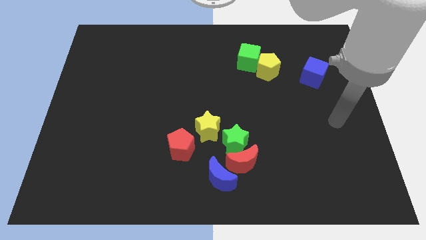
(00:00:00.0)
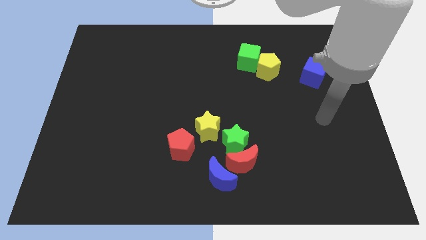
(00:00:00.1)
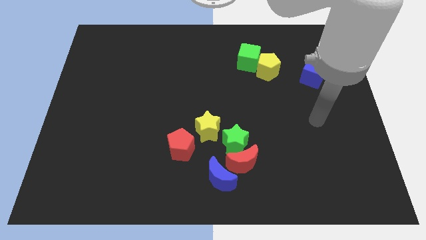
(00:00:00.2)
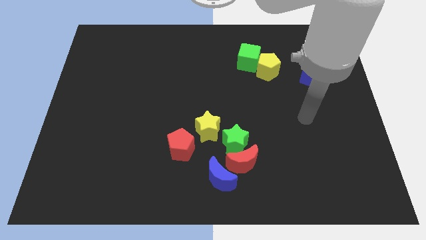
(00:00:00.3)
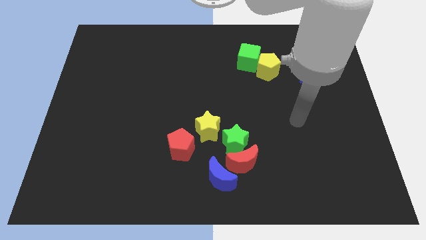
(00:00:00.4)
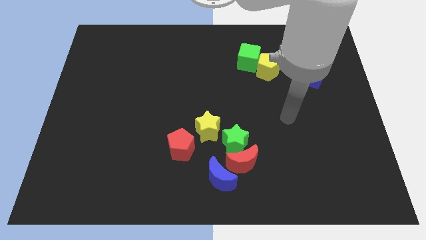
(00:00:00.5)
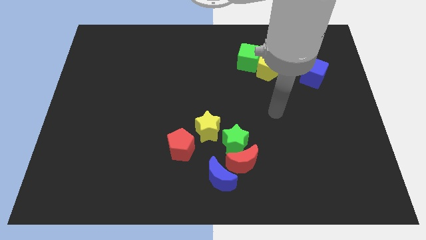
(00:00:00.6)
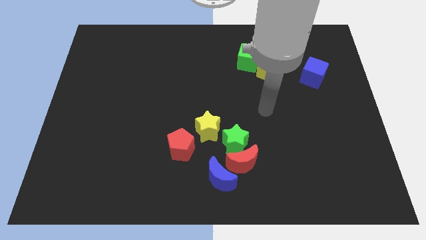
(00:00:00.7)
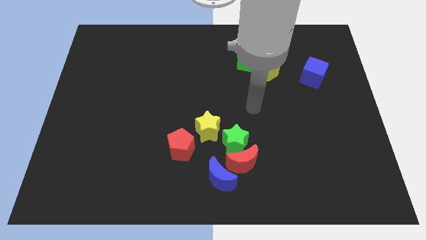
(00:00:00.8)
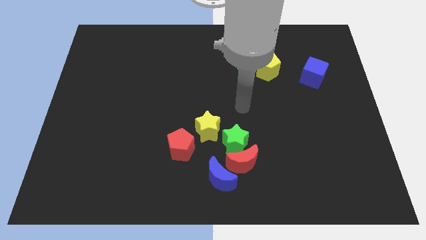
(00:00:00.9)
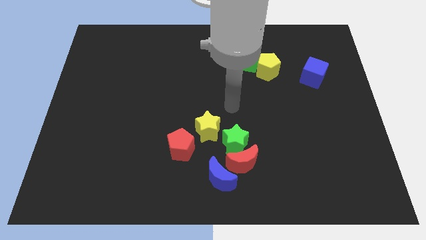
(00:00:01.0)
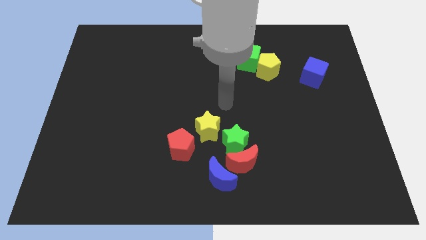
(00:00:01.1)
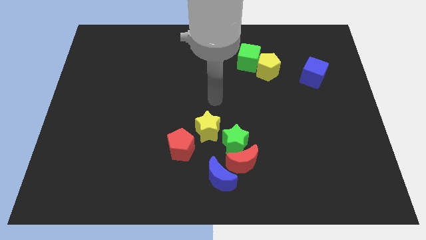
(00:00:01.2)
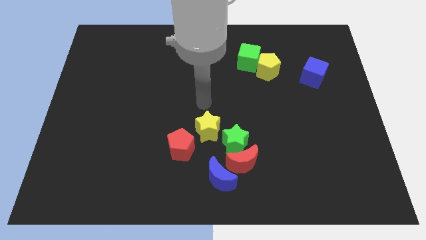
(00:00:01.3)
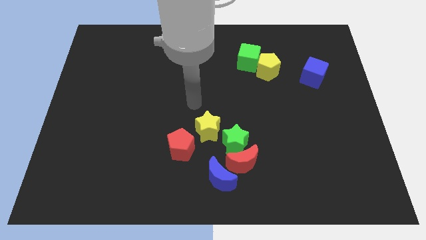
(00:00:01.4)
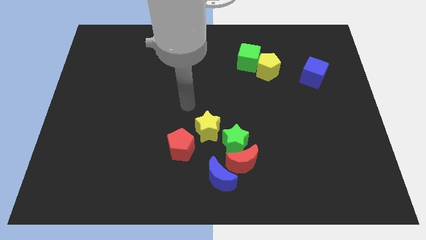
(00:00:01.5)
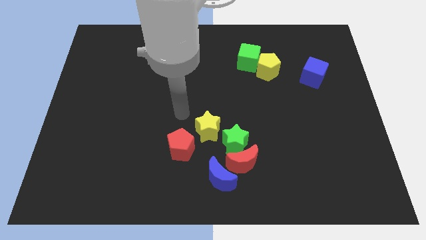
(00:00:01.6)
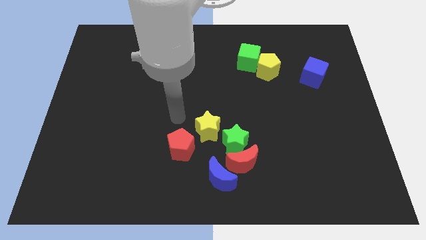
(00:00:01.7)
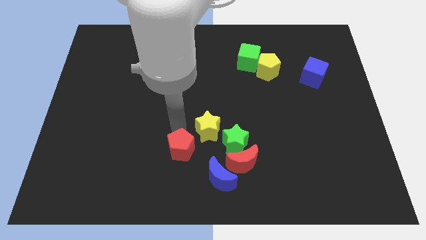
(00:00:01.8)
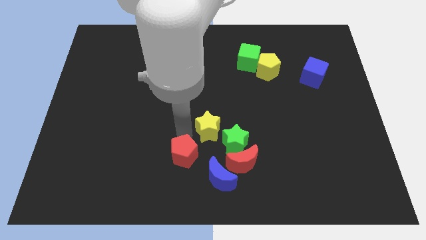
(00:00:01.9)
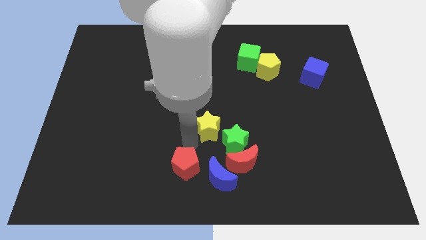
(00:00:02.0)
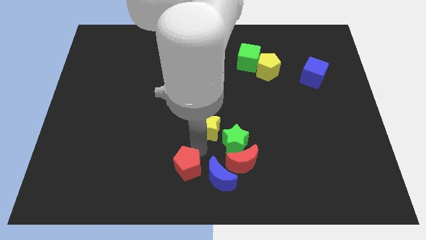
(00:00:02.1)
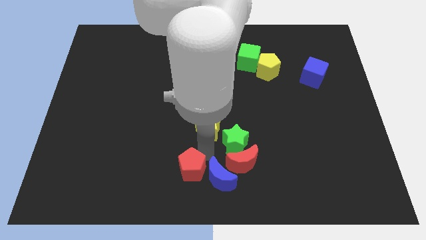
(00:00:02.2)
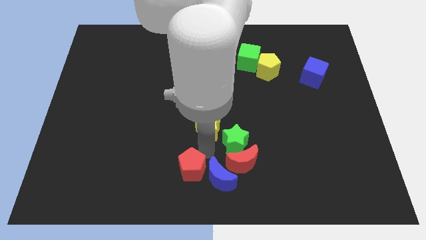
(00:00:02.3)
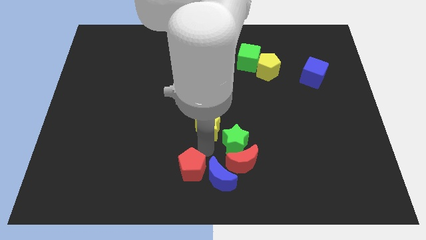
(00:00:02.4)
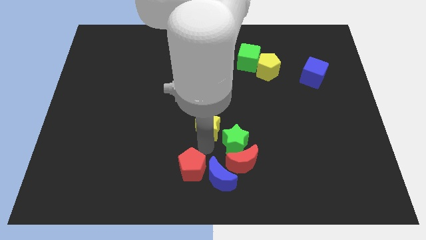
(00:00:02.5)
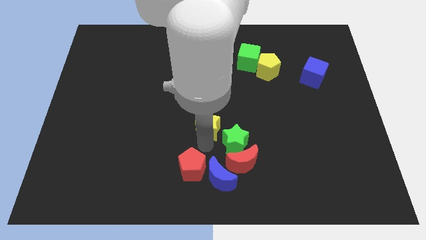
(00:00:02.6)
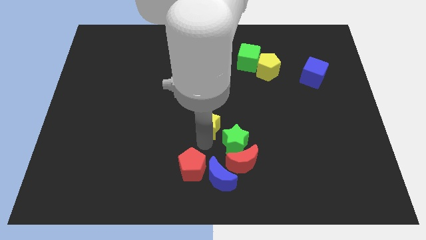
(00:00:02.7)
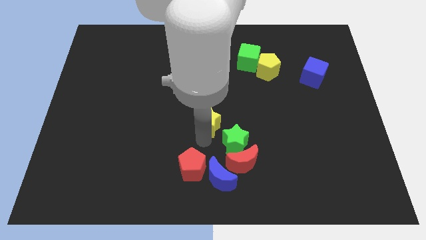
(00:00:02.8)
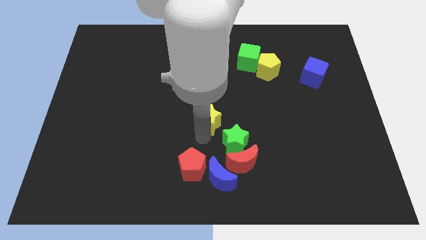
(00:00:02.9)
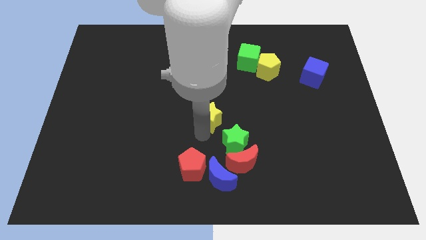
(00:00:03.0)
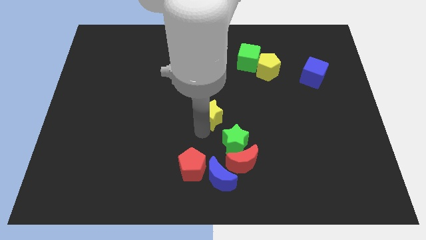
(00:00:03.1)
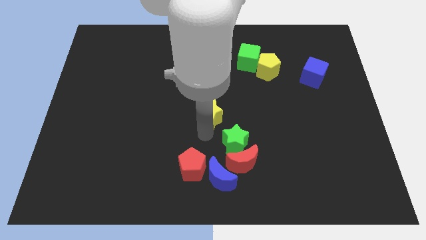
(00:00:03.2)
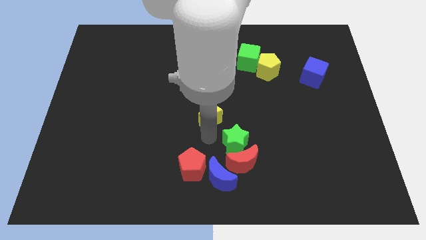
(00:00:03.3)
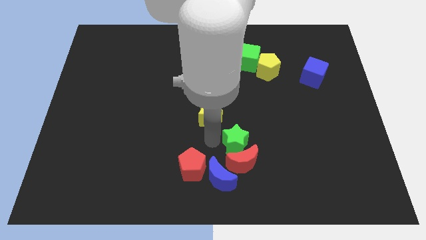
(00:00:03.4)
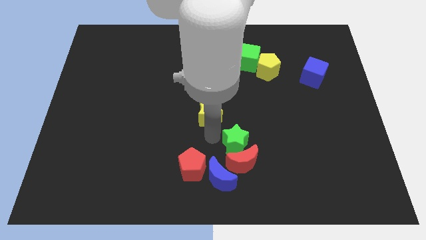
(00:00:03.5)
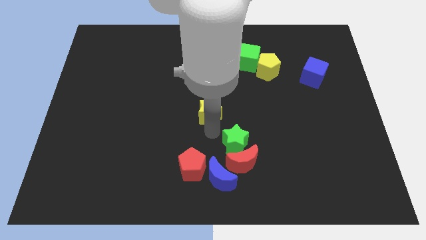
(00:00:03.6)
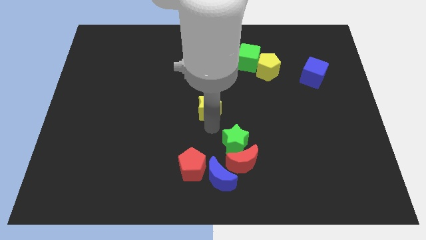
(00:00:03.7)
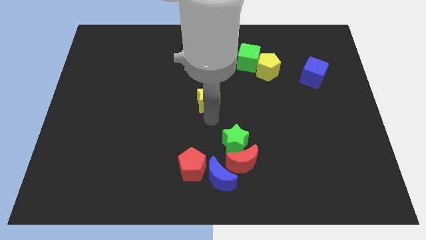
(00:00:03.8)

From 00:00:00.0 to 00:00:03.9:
slide the yellow star a little bit upwards

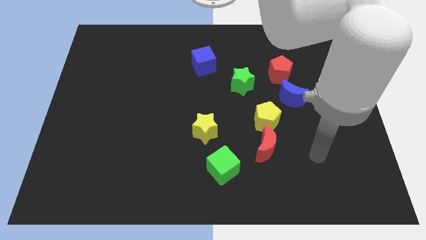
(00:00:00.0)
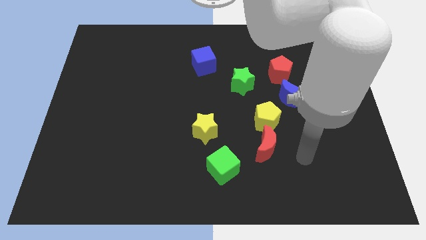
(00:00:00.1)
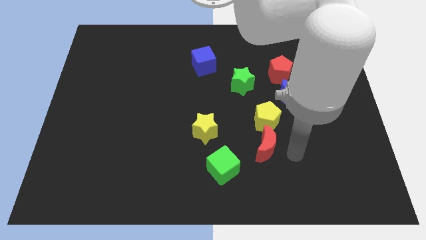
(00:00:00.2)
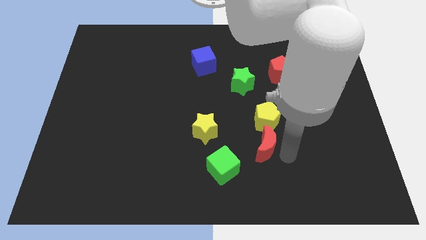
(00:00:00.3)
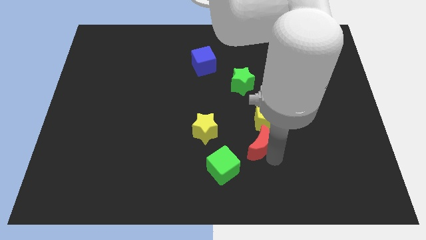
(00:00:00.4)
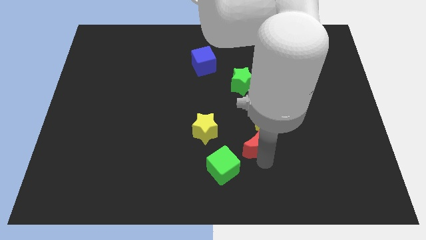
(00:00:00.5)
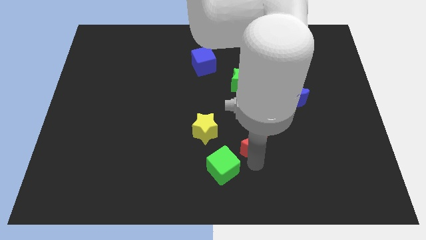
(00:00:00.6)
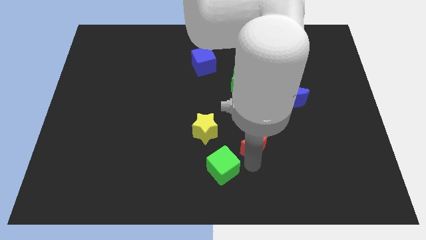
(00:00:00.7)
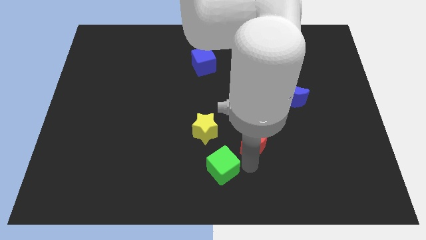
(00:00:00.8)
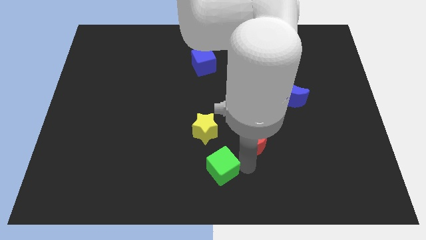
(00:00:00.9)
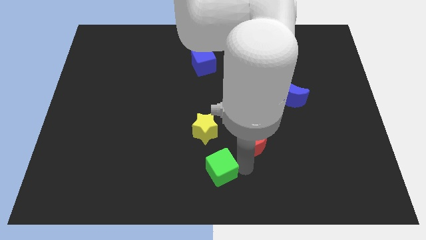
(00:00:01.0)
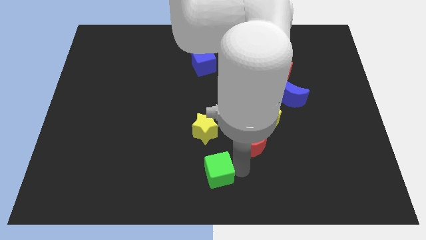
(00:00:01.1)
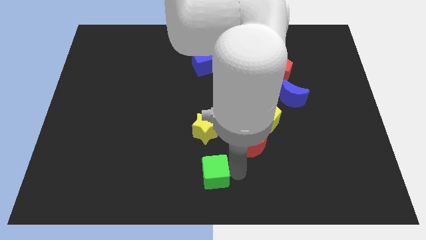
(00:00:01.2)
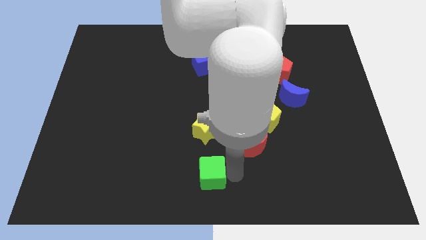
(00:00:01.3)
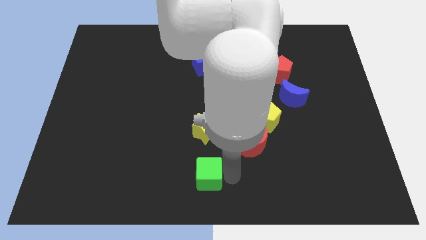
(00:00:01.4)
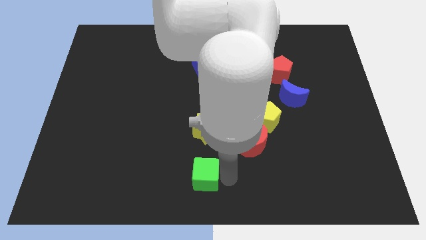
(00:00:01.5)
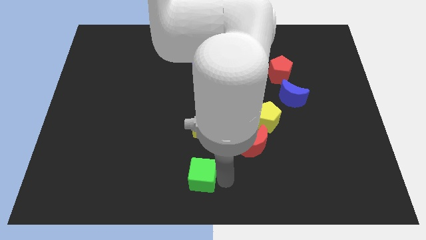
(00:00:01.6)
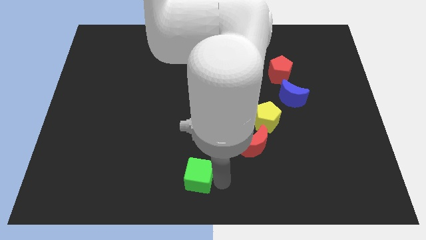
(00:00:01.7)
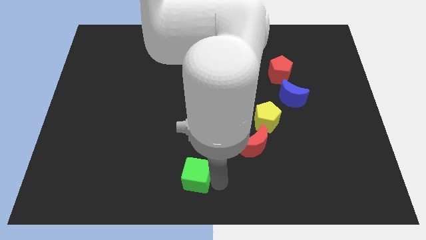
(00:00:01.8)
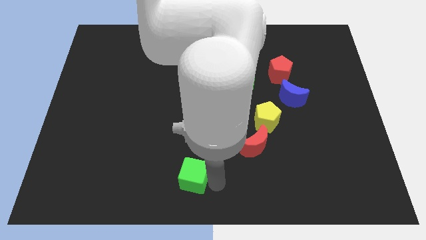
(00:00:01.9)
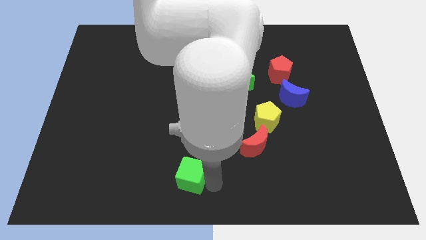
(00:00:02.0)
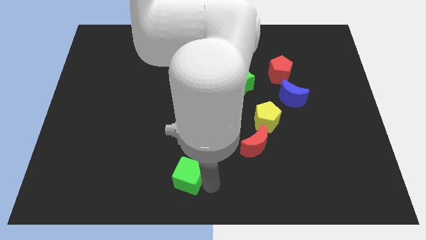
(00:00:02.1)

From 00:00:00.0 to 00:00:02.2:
push the green cube a little left

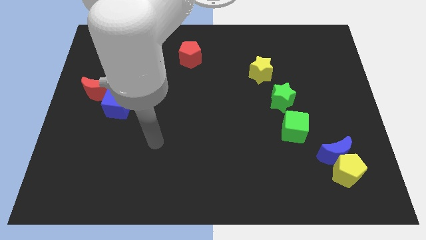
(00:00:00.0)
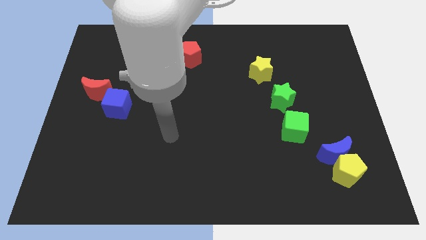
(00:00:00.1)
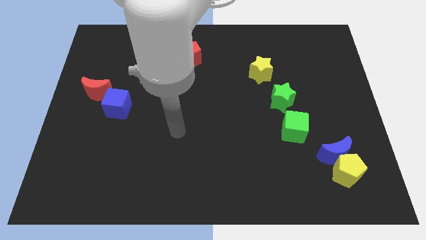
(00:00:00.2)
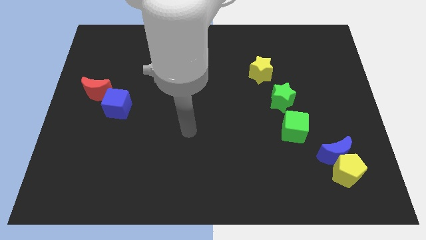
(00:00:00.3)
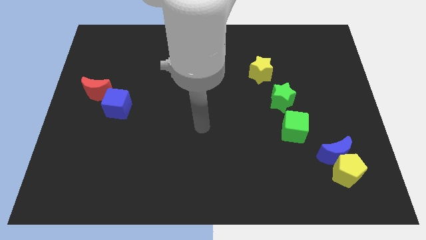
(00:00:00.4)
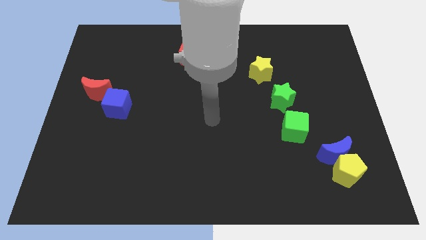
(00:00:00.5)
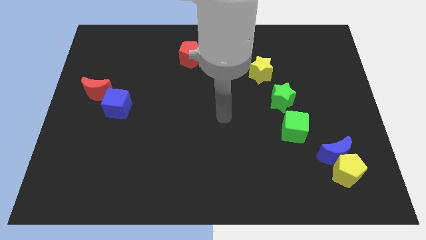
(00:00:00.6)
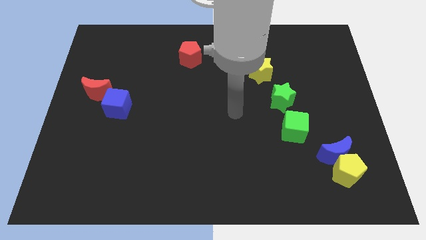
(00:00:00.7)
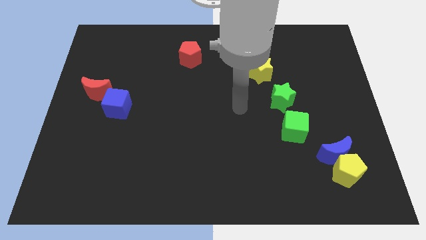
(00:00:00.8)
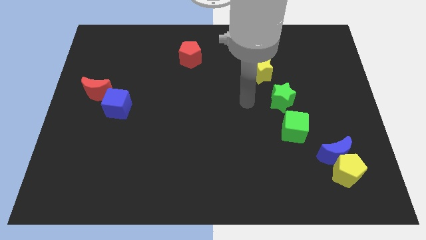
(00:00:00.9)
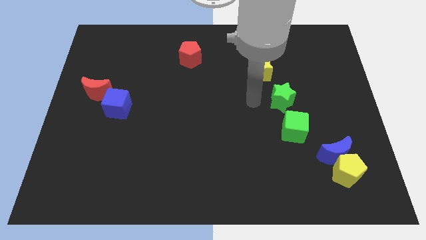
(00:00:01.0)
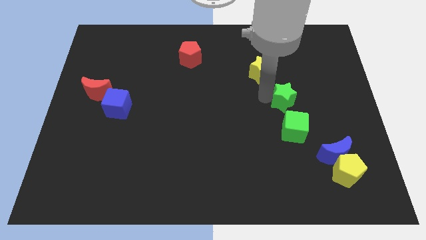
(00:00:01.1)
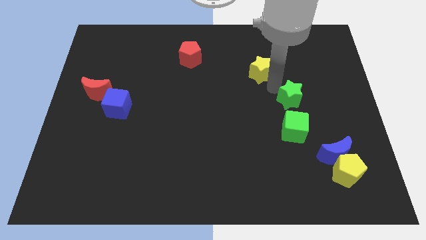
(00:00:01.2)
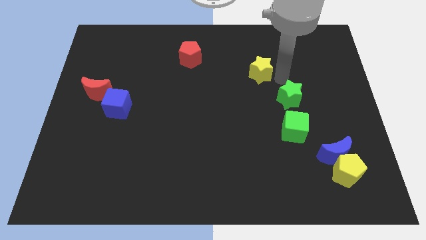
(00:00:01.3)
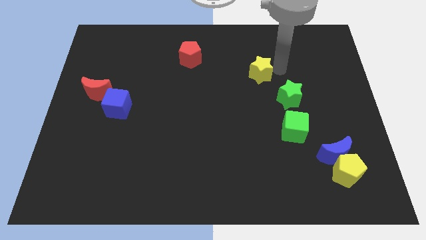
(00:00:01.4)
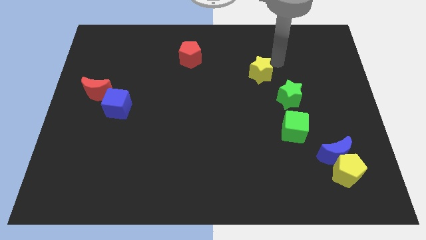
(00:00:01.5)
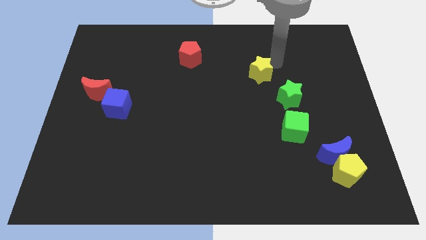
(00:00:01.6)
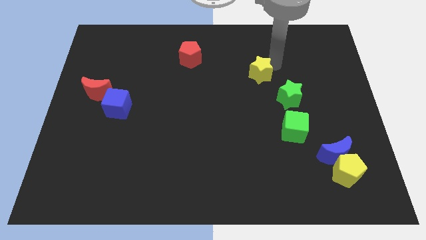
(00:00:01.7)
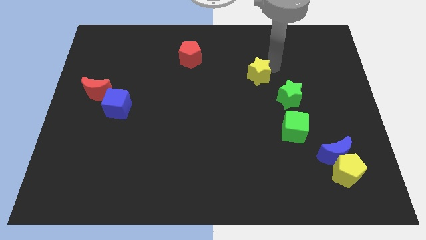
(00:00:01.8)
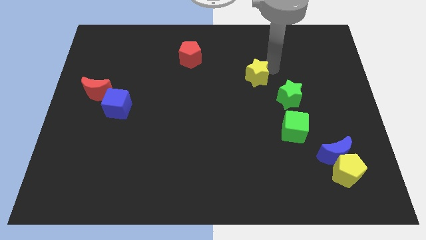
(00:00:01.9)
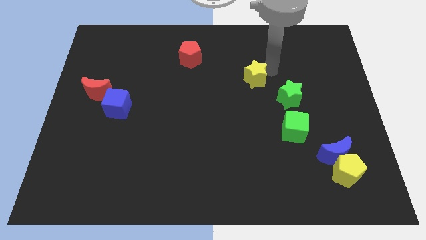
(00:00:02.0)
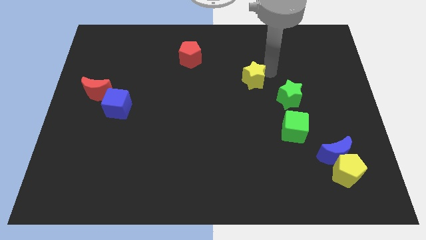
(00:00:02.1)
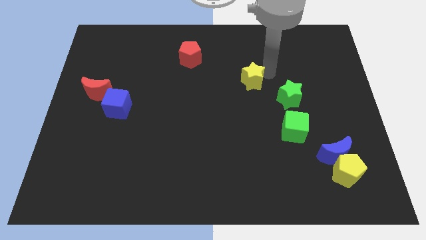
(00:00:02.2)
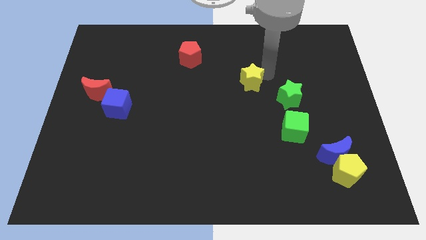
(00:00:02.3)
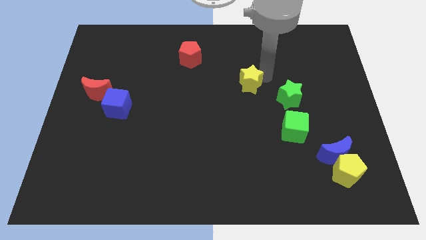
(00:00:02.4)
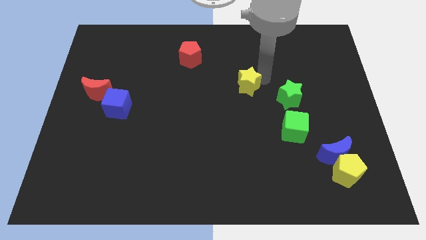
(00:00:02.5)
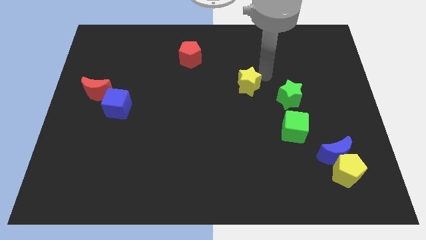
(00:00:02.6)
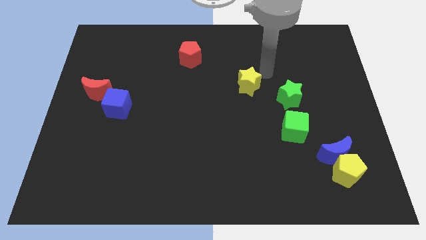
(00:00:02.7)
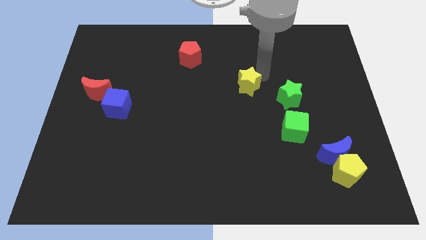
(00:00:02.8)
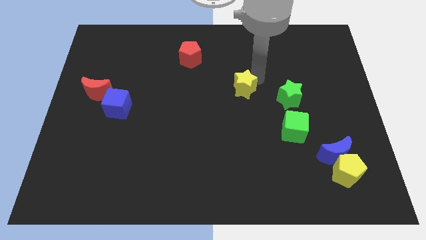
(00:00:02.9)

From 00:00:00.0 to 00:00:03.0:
slide the yellow star a bit down and then to the left
